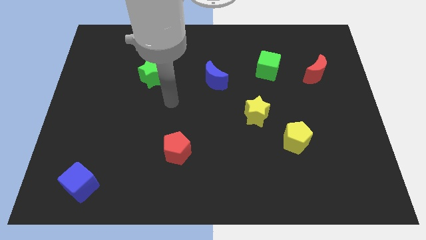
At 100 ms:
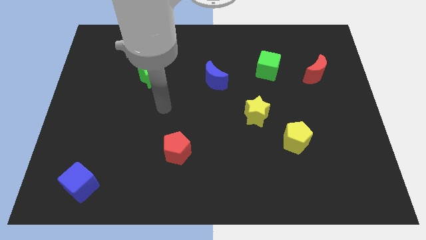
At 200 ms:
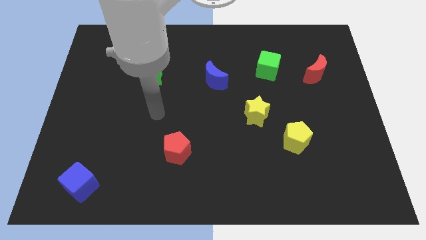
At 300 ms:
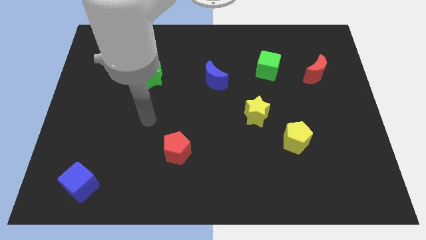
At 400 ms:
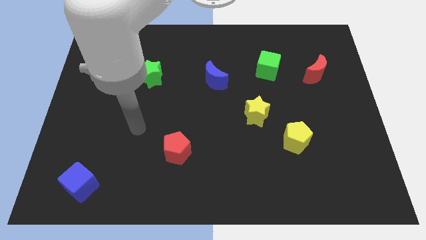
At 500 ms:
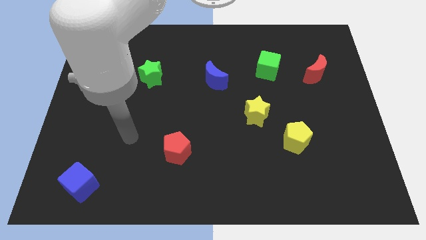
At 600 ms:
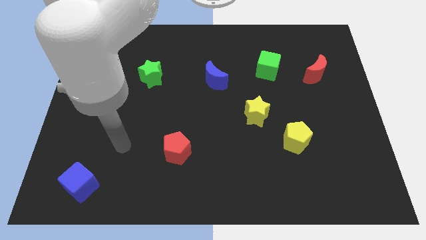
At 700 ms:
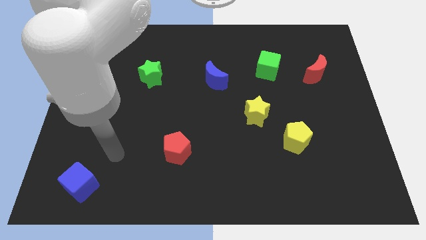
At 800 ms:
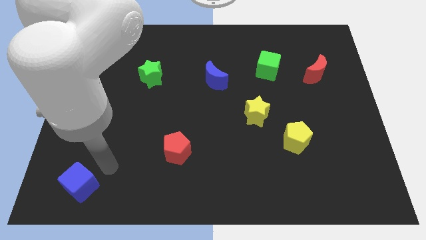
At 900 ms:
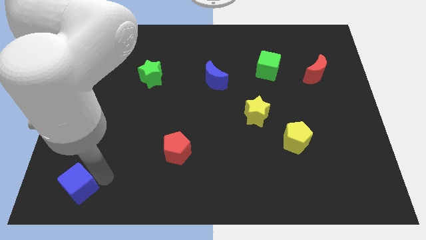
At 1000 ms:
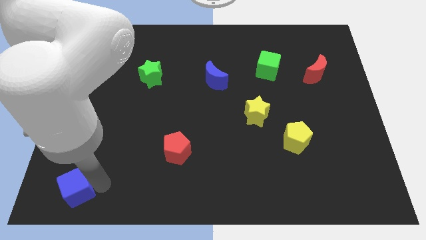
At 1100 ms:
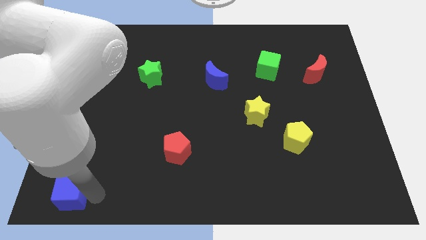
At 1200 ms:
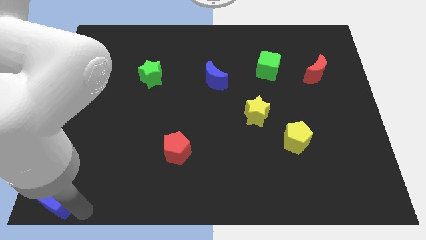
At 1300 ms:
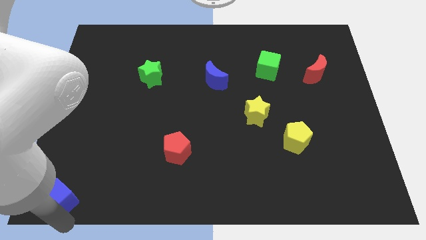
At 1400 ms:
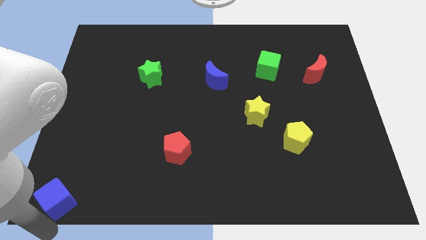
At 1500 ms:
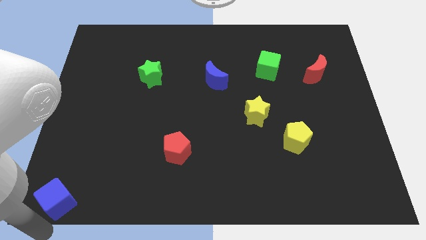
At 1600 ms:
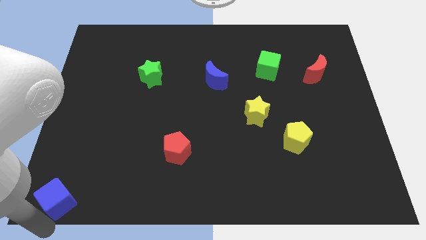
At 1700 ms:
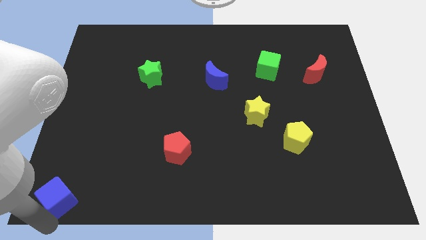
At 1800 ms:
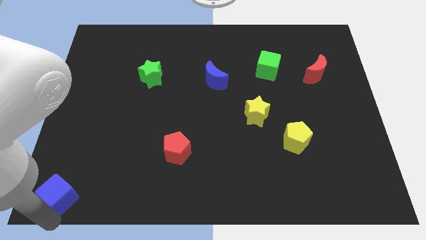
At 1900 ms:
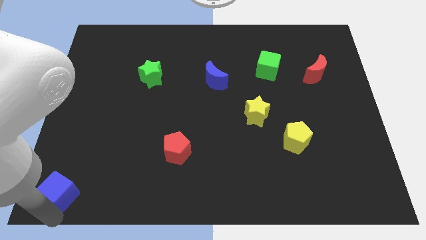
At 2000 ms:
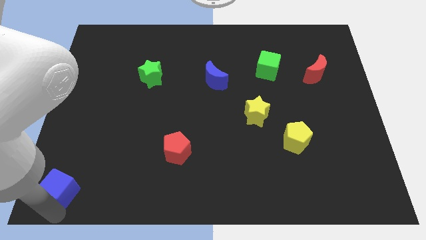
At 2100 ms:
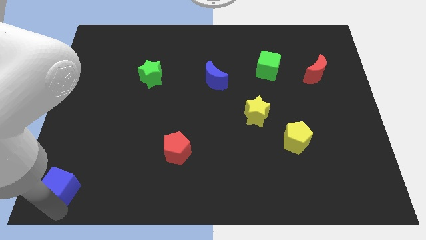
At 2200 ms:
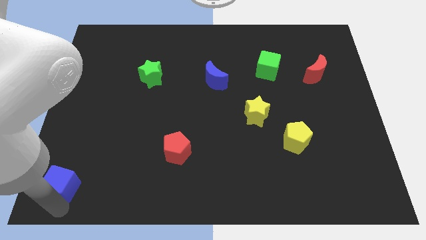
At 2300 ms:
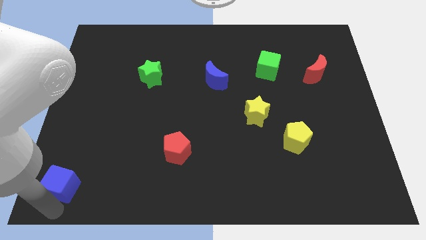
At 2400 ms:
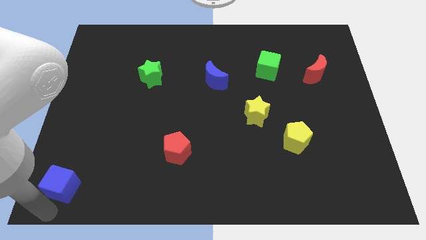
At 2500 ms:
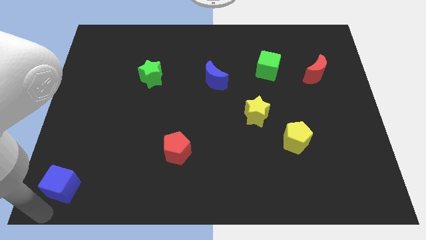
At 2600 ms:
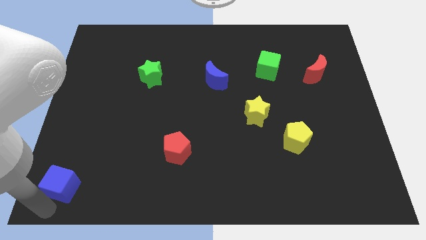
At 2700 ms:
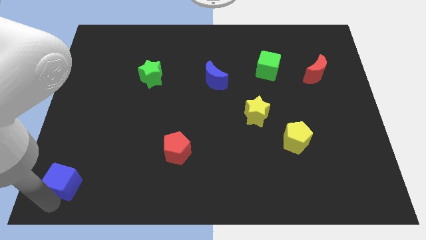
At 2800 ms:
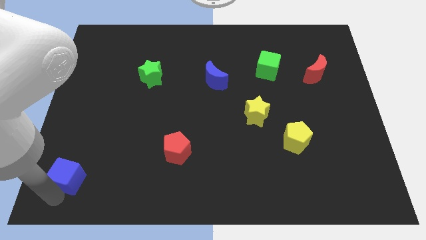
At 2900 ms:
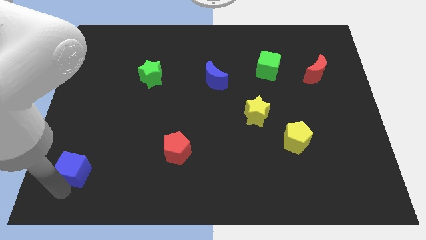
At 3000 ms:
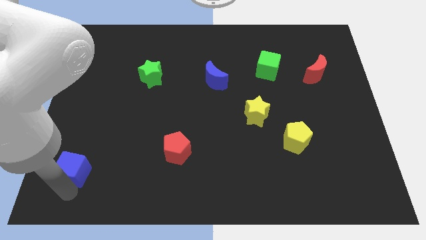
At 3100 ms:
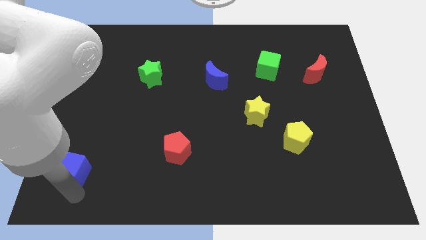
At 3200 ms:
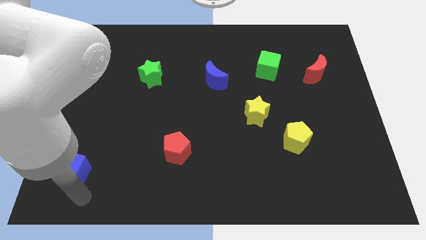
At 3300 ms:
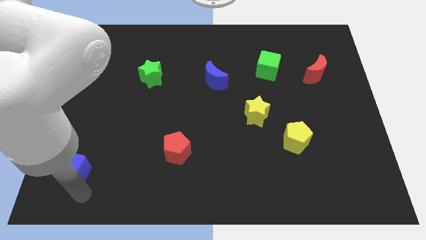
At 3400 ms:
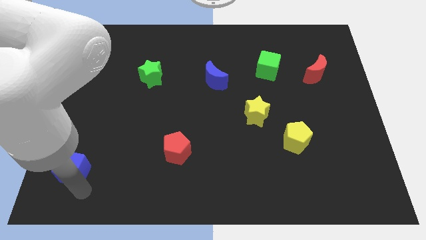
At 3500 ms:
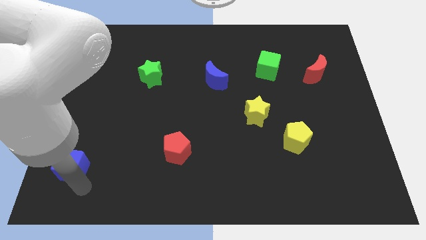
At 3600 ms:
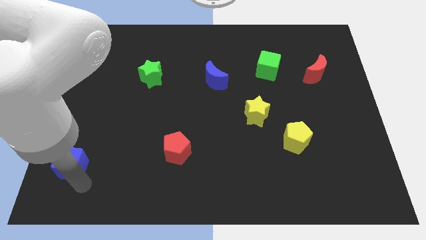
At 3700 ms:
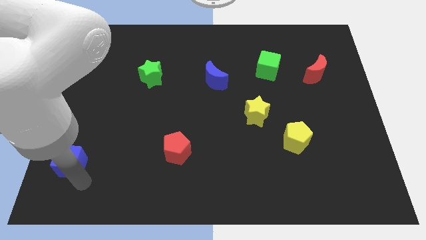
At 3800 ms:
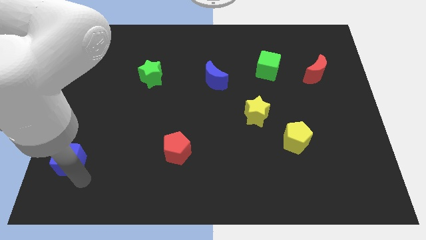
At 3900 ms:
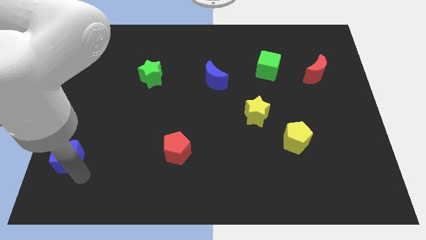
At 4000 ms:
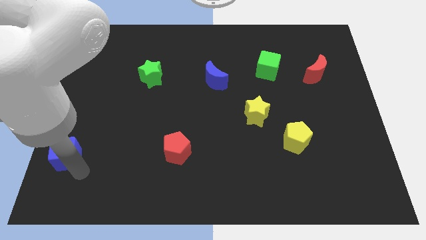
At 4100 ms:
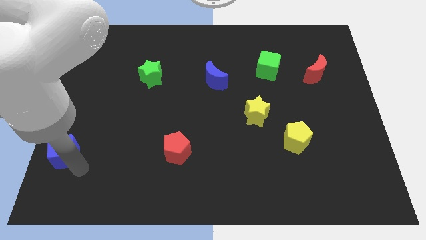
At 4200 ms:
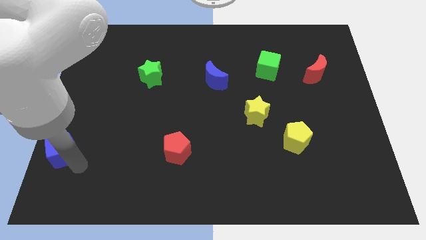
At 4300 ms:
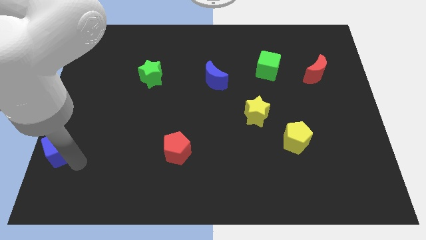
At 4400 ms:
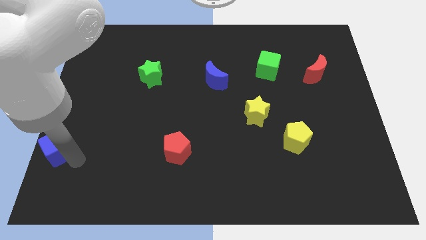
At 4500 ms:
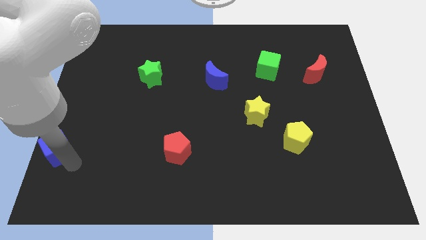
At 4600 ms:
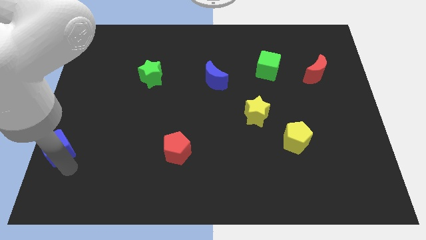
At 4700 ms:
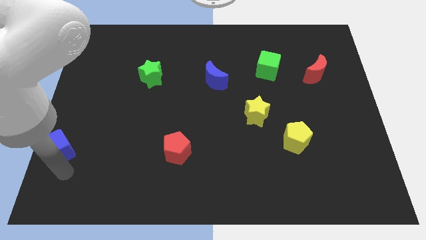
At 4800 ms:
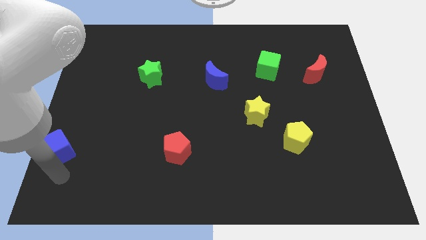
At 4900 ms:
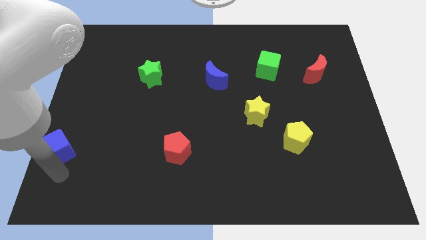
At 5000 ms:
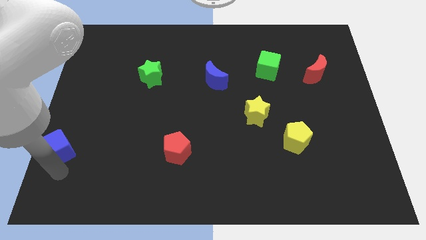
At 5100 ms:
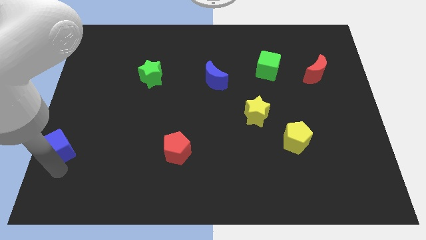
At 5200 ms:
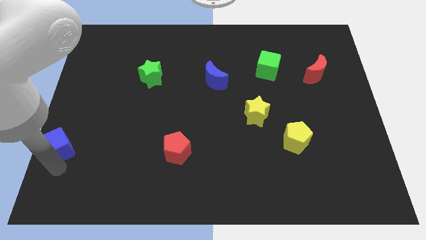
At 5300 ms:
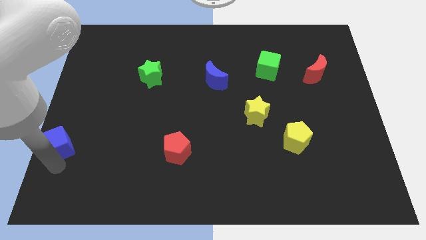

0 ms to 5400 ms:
push the blue cube to the left side
